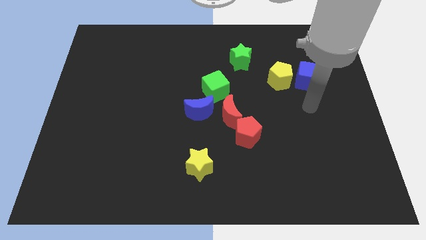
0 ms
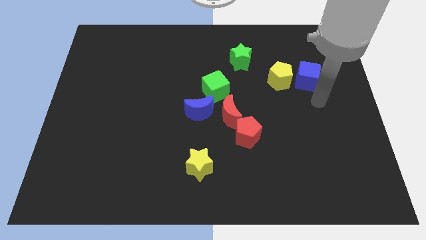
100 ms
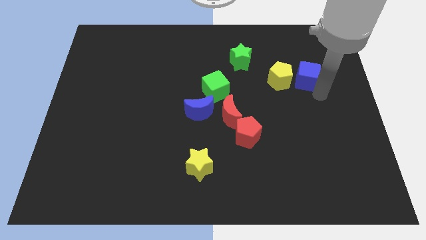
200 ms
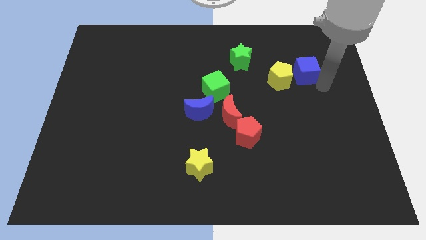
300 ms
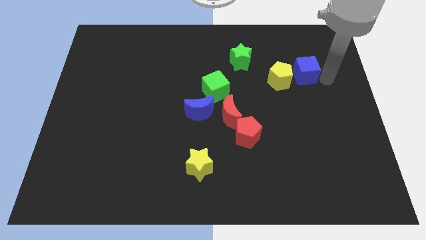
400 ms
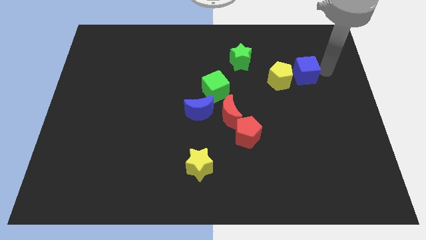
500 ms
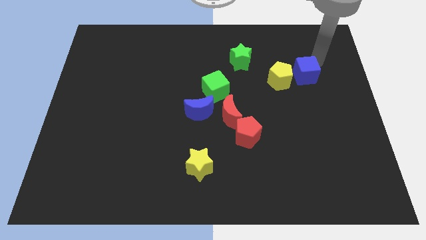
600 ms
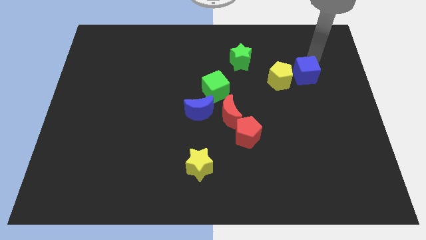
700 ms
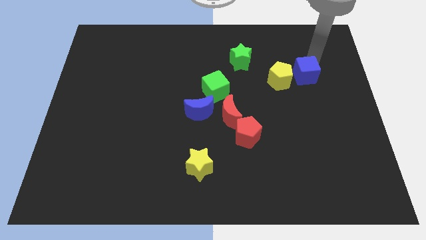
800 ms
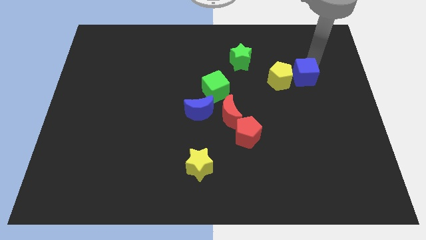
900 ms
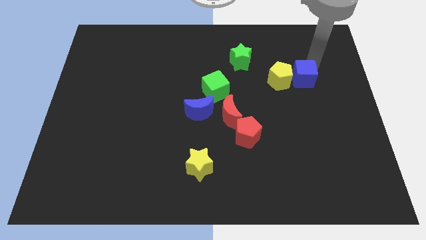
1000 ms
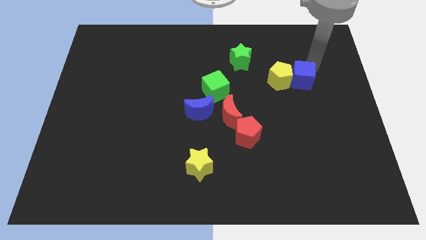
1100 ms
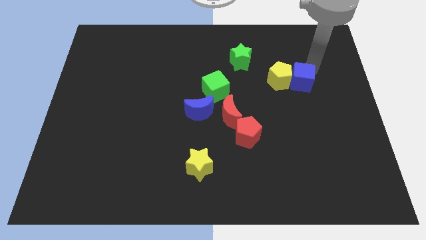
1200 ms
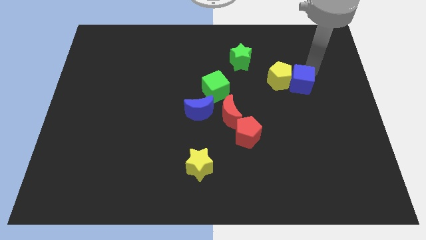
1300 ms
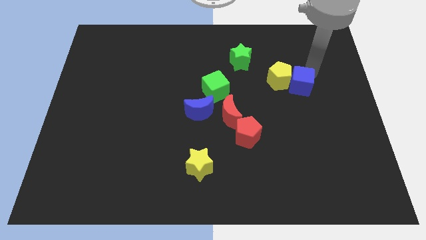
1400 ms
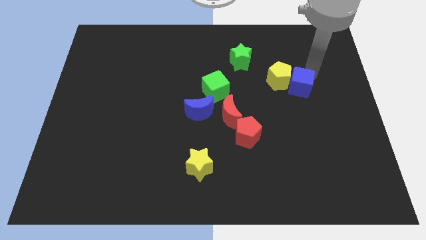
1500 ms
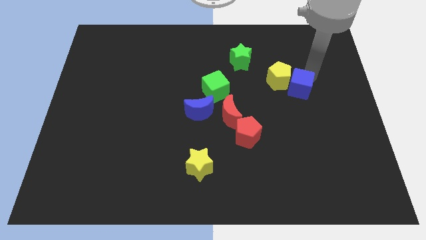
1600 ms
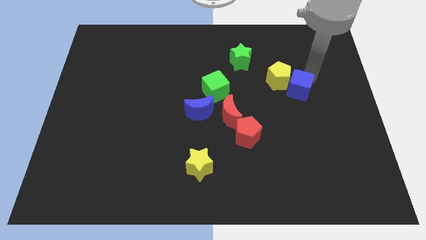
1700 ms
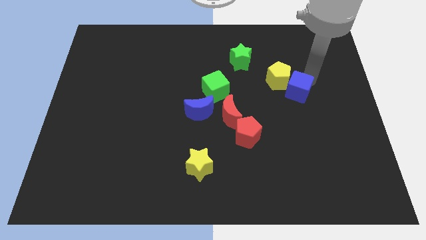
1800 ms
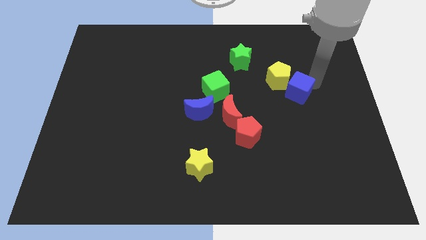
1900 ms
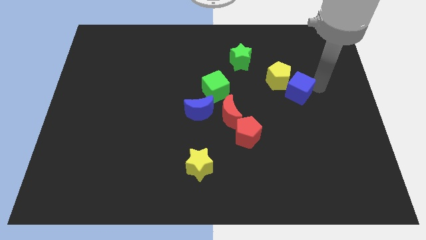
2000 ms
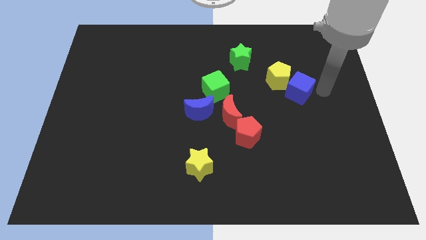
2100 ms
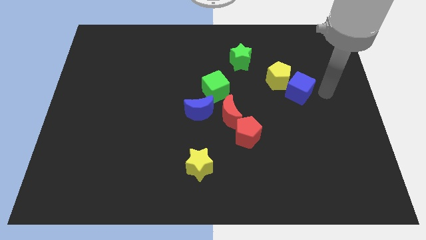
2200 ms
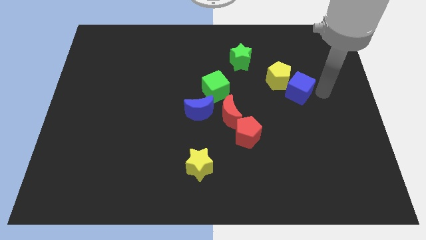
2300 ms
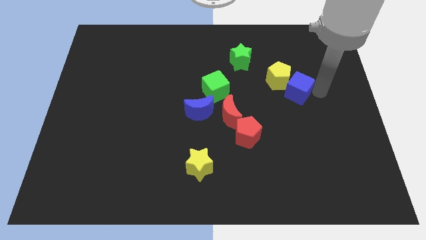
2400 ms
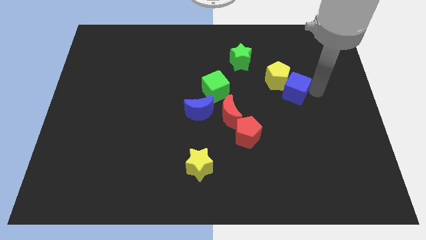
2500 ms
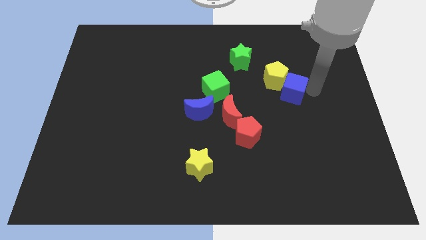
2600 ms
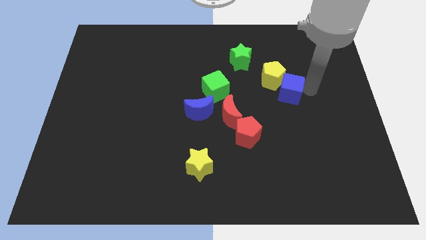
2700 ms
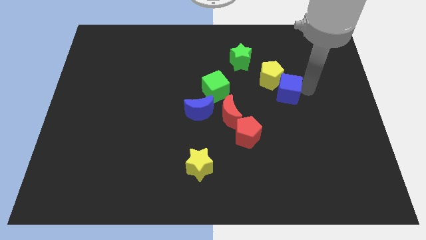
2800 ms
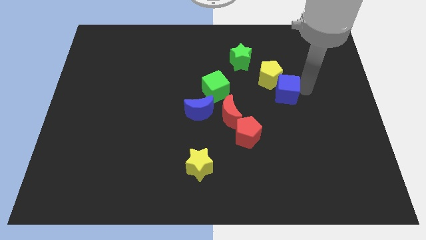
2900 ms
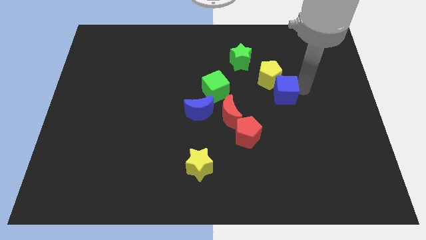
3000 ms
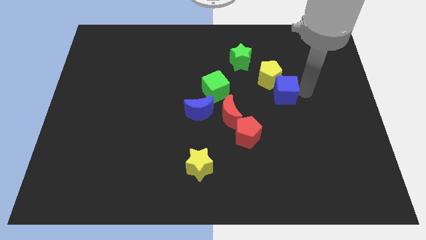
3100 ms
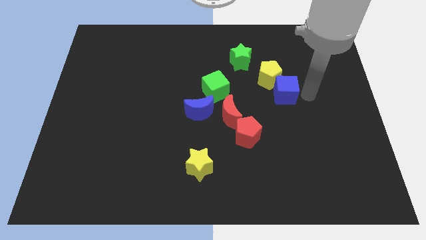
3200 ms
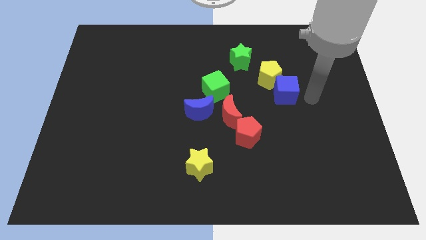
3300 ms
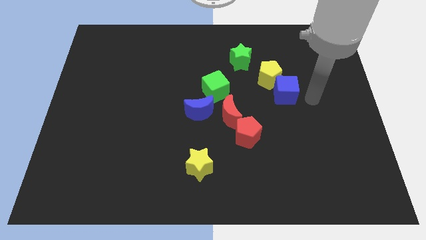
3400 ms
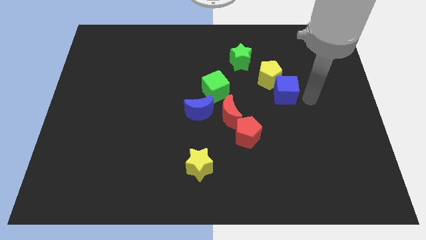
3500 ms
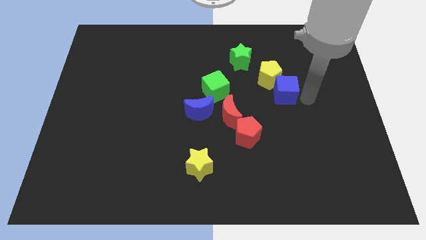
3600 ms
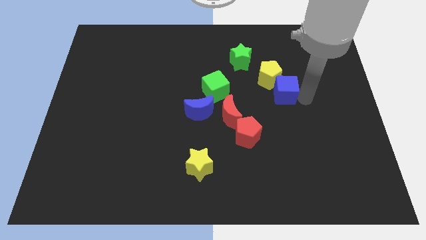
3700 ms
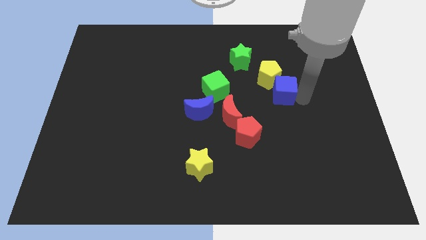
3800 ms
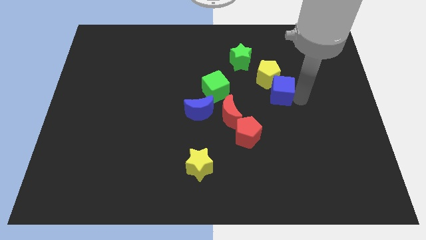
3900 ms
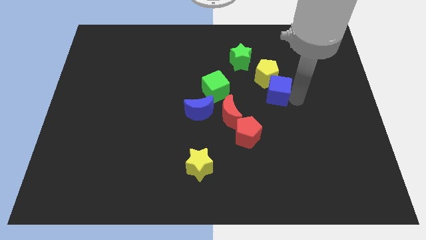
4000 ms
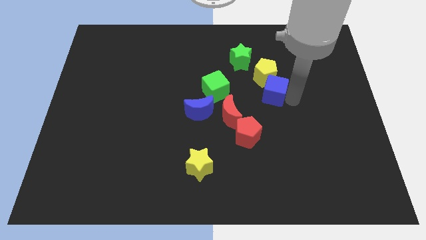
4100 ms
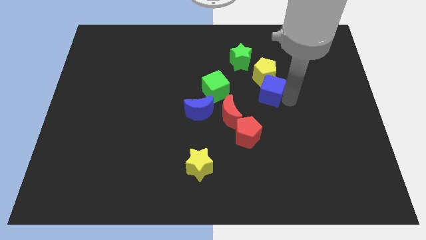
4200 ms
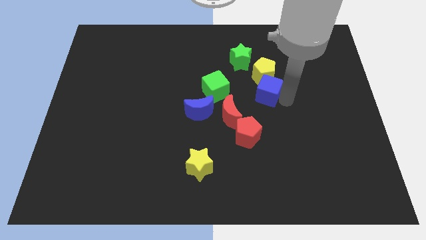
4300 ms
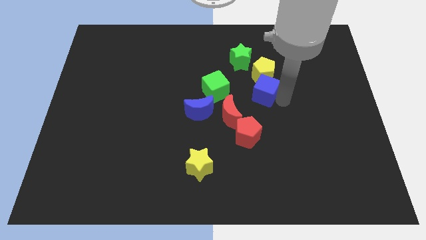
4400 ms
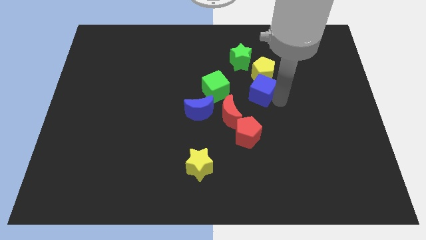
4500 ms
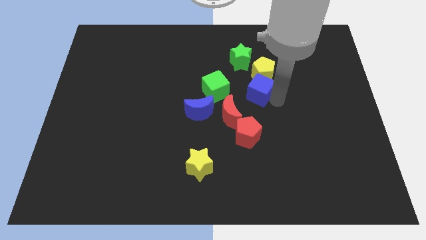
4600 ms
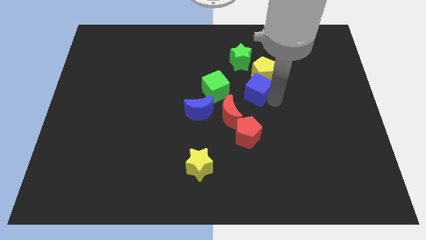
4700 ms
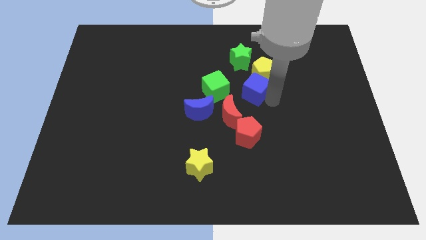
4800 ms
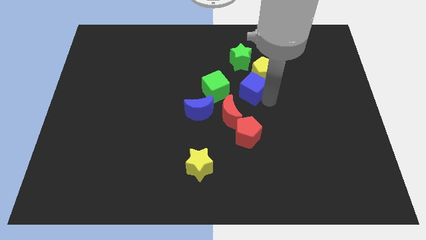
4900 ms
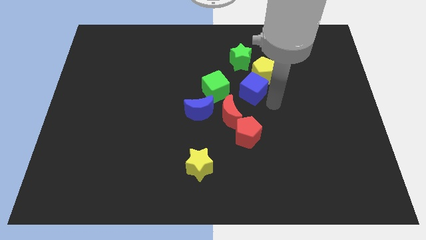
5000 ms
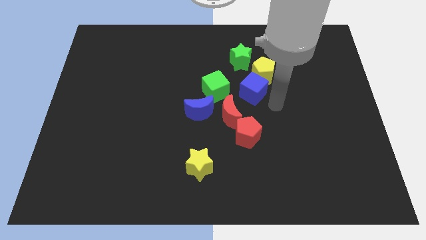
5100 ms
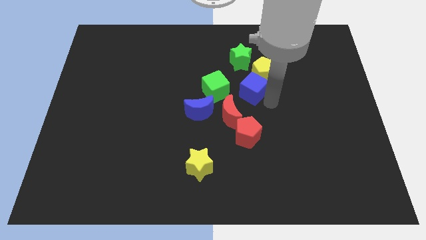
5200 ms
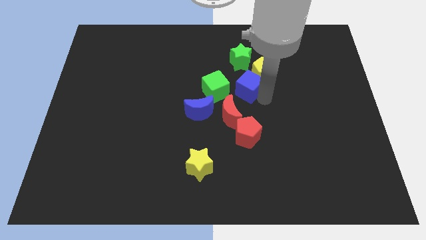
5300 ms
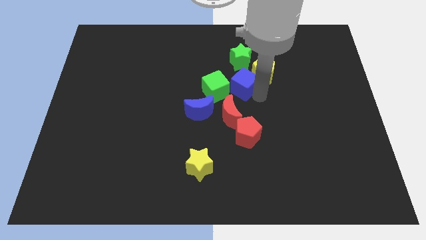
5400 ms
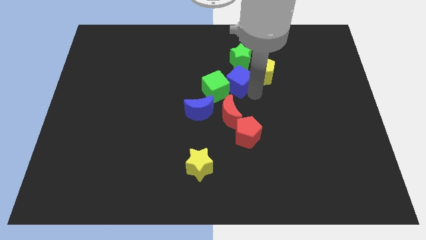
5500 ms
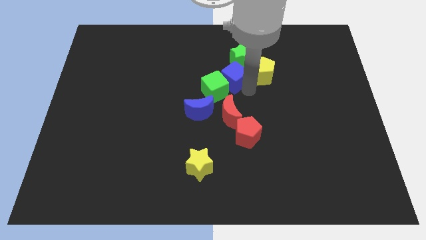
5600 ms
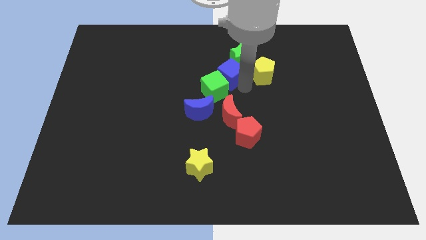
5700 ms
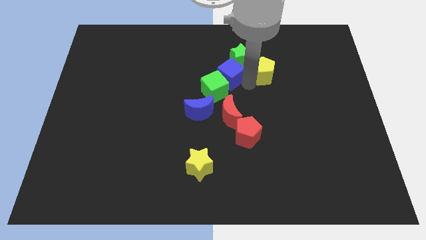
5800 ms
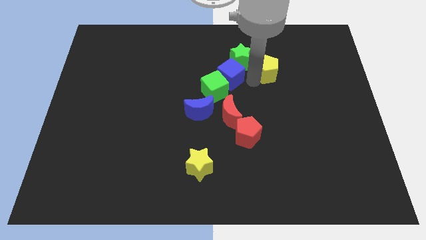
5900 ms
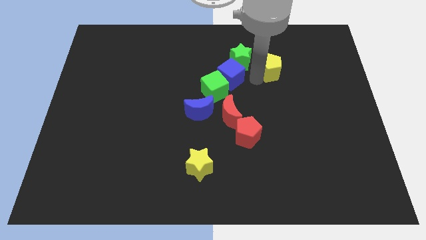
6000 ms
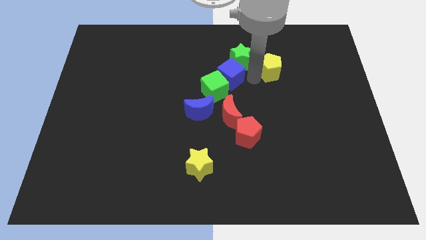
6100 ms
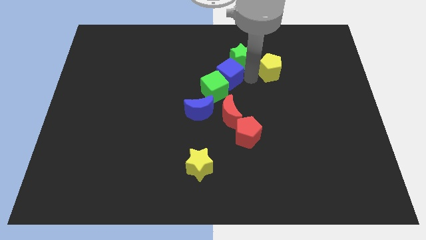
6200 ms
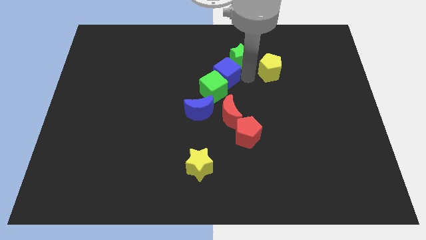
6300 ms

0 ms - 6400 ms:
push the blue cube to the left

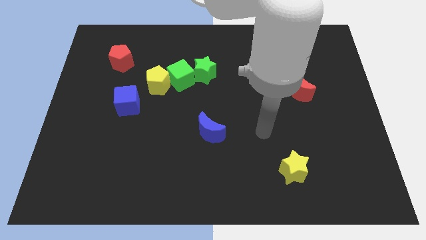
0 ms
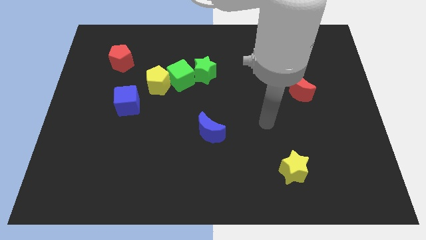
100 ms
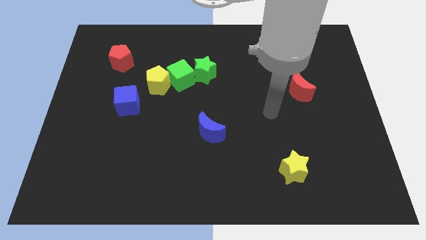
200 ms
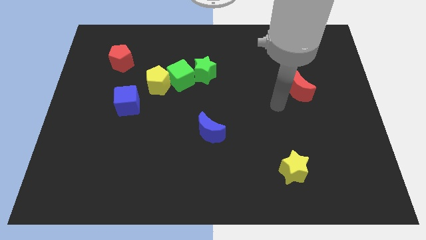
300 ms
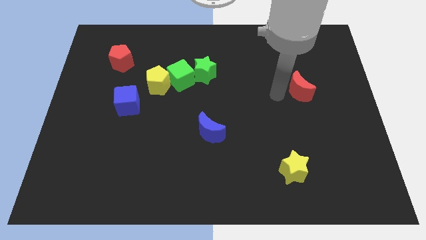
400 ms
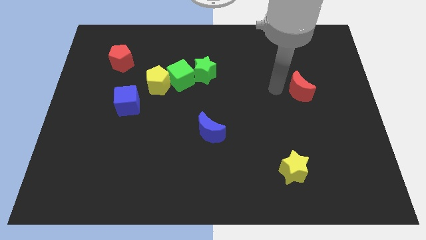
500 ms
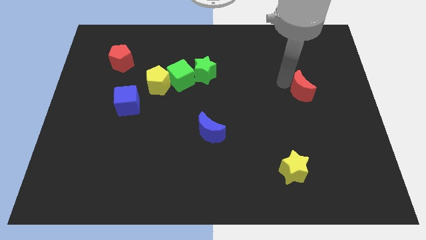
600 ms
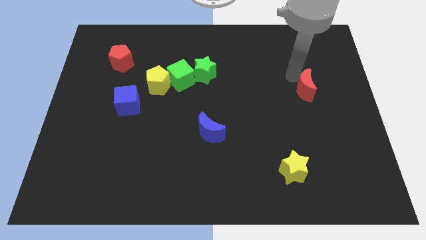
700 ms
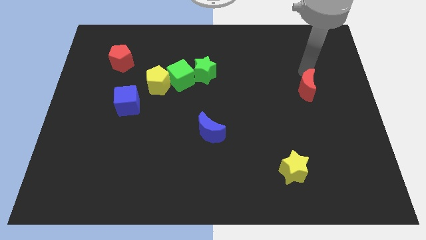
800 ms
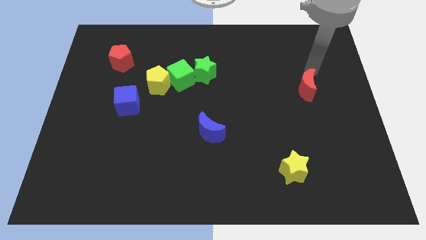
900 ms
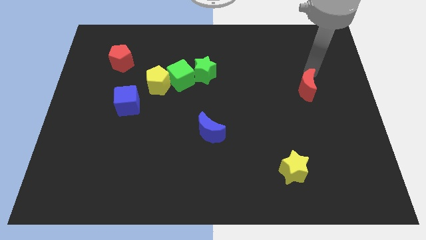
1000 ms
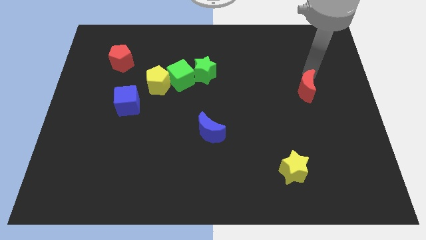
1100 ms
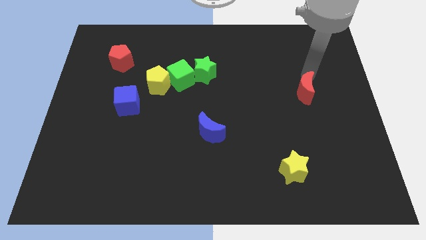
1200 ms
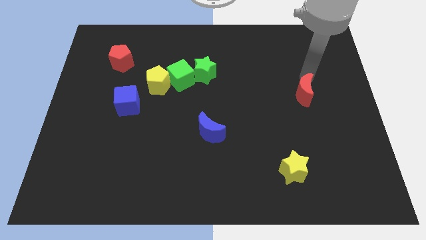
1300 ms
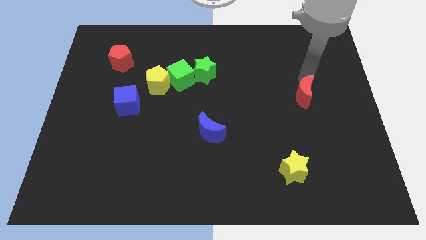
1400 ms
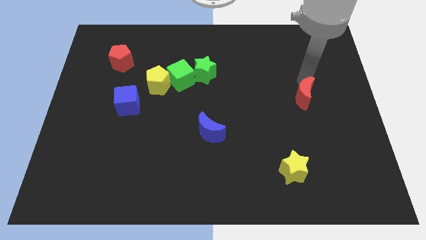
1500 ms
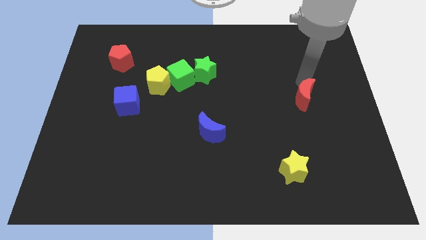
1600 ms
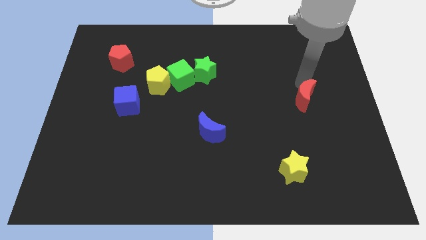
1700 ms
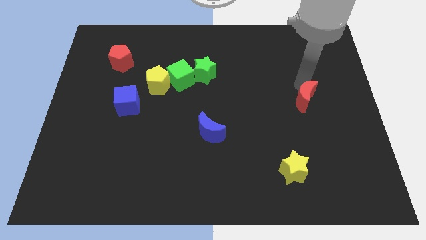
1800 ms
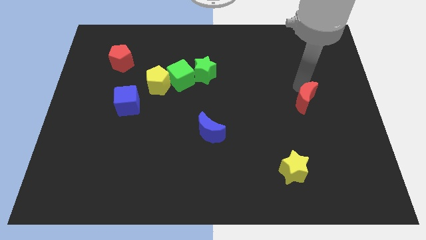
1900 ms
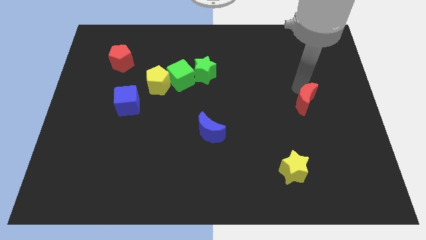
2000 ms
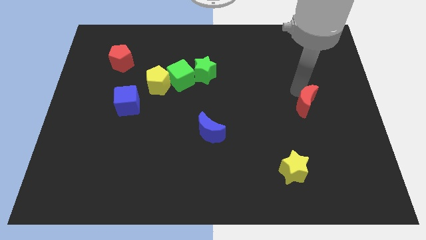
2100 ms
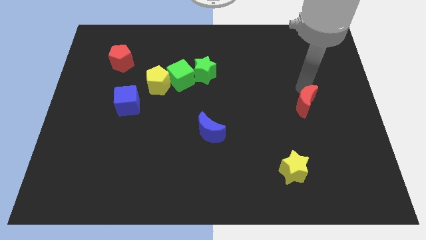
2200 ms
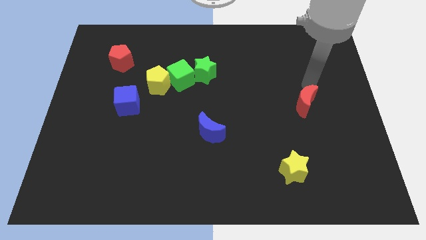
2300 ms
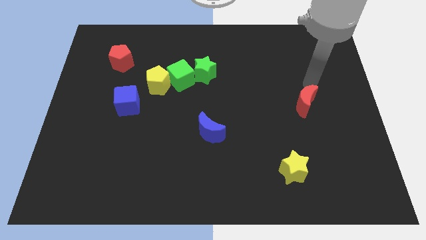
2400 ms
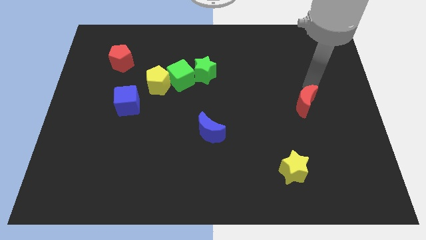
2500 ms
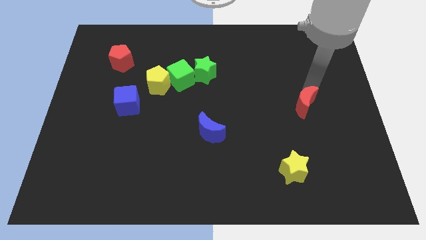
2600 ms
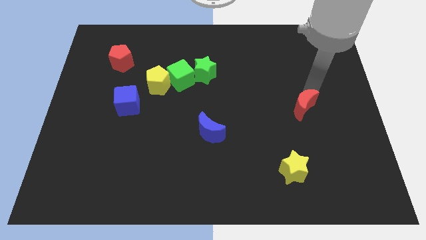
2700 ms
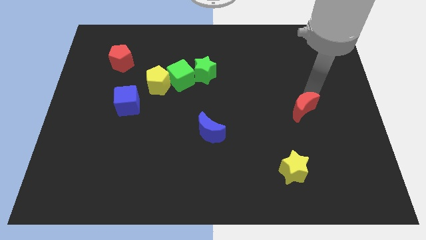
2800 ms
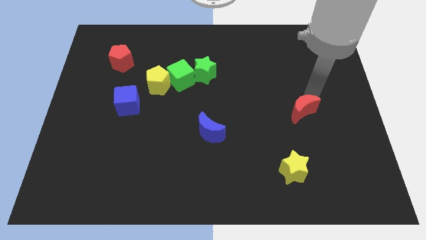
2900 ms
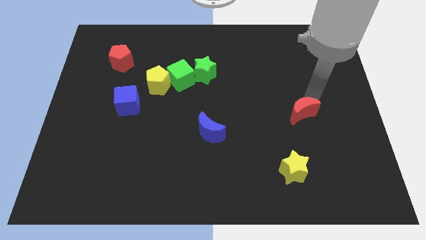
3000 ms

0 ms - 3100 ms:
slightly move the red moon down
